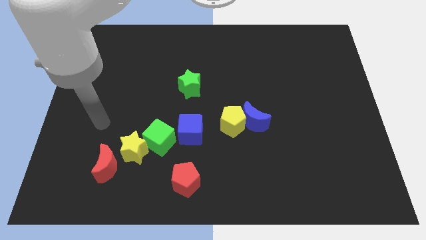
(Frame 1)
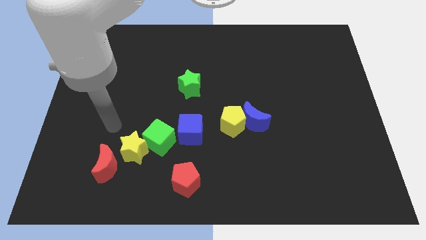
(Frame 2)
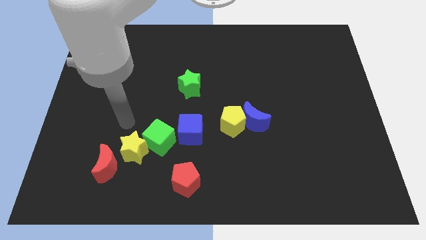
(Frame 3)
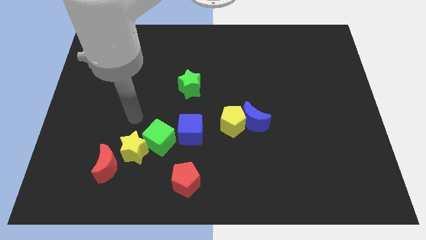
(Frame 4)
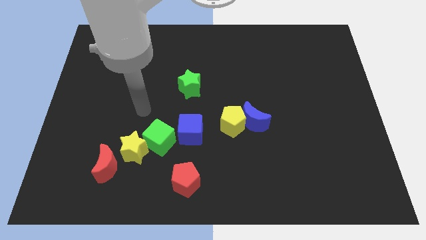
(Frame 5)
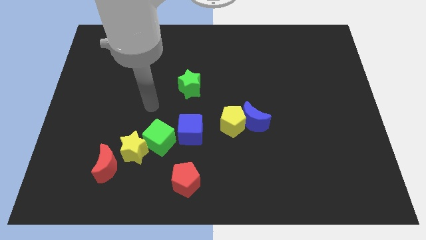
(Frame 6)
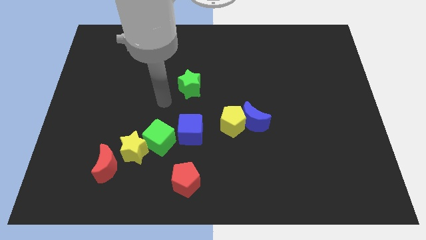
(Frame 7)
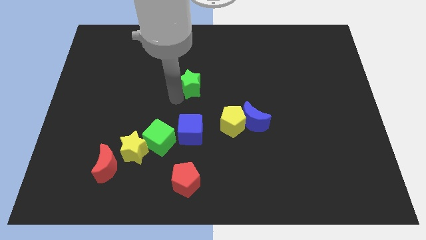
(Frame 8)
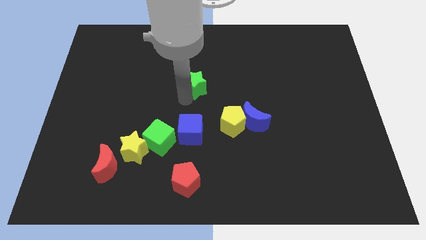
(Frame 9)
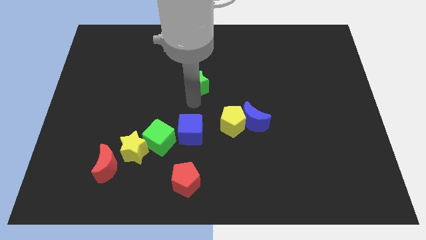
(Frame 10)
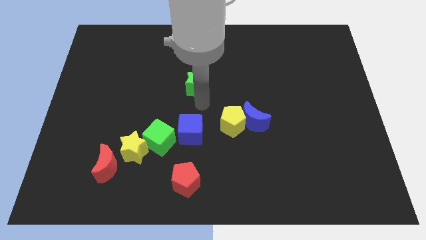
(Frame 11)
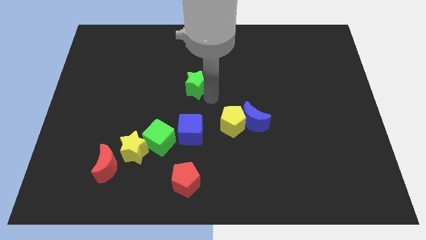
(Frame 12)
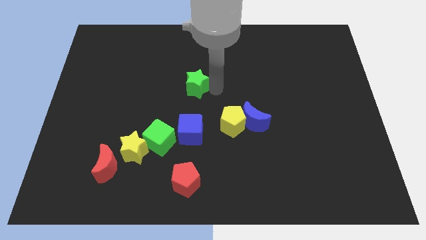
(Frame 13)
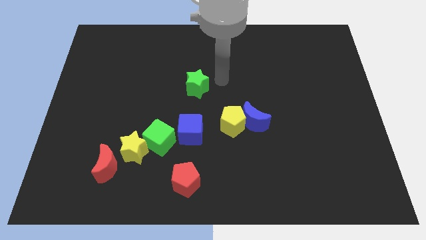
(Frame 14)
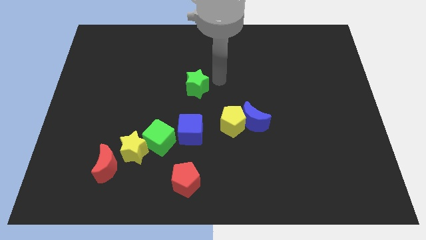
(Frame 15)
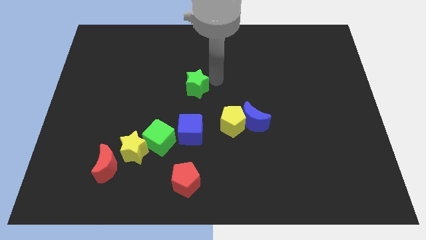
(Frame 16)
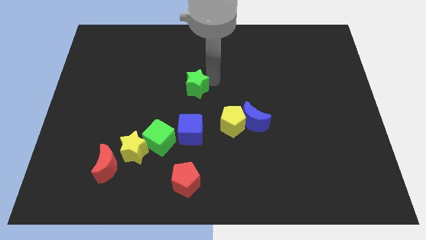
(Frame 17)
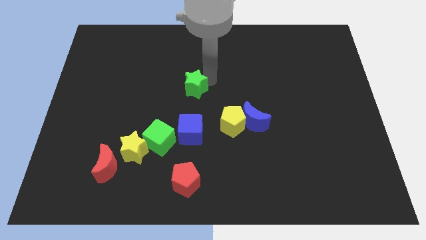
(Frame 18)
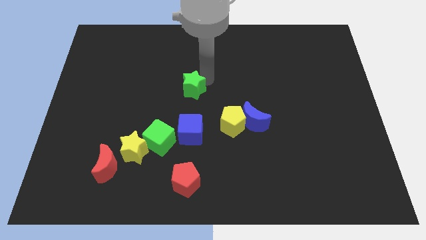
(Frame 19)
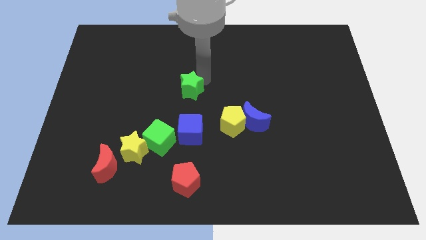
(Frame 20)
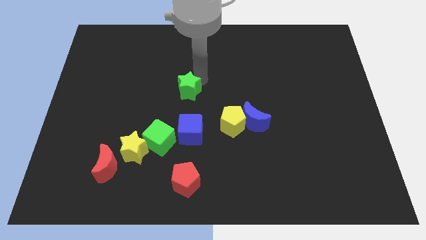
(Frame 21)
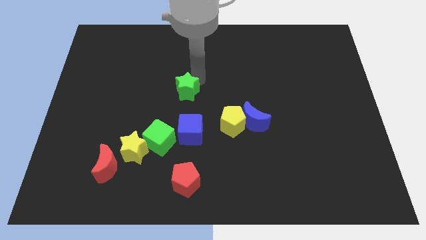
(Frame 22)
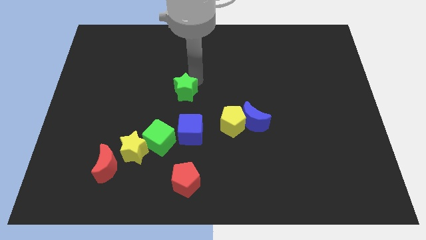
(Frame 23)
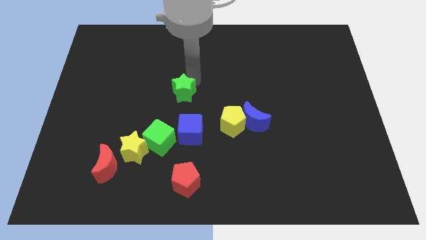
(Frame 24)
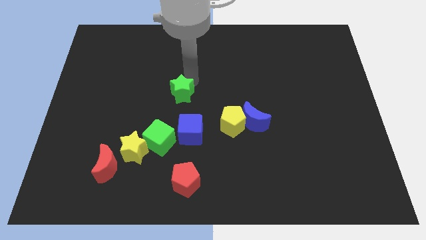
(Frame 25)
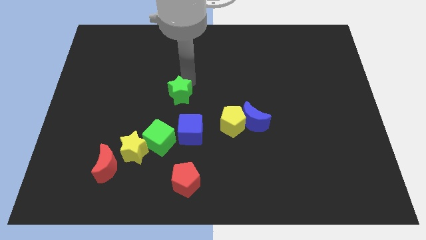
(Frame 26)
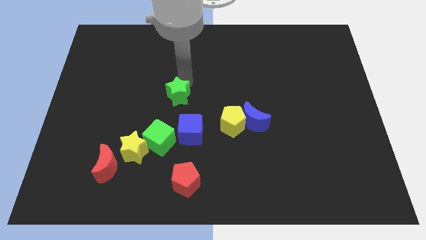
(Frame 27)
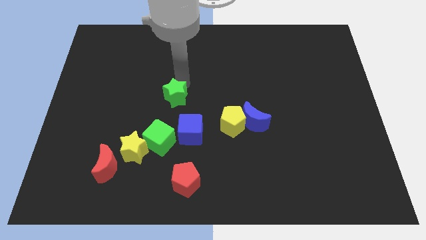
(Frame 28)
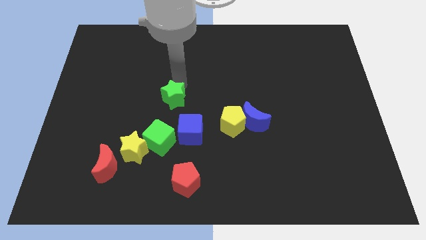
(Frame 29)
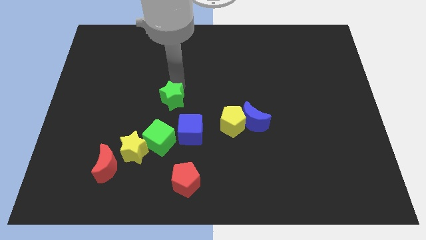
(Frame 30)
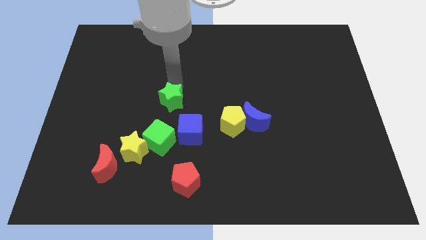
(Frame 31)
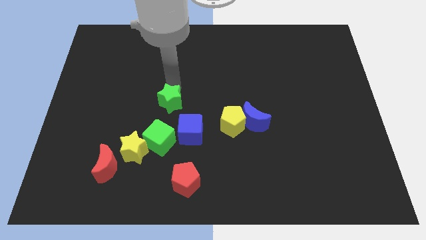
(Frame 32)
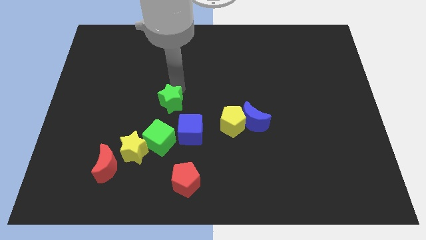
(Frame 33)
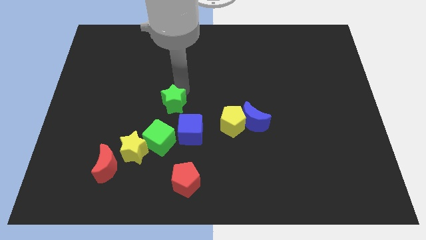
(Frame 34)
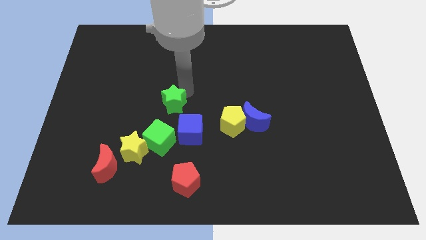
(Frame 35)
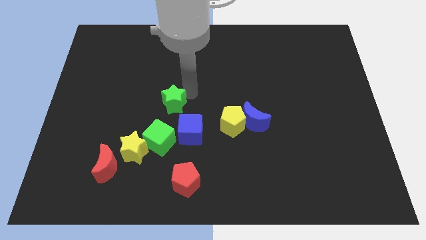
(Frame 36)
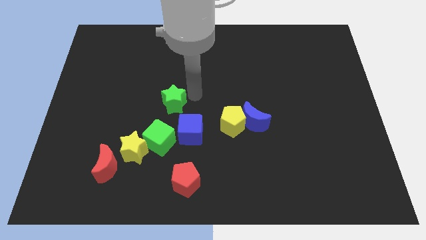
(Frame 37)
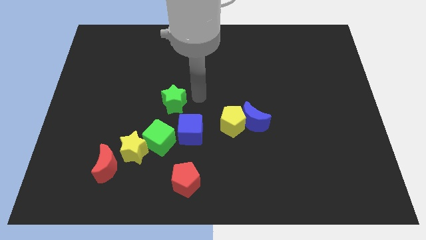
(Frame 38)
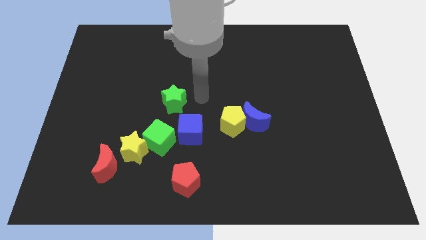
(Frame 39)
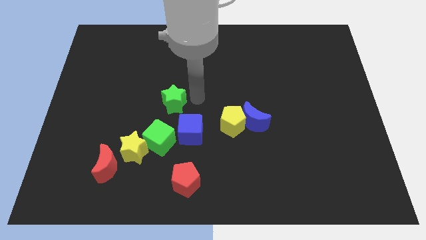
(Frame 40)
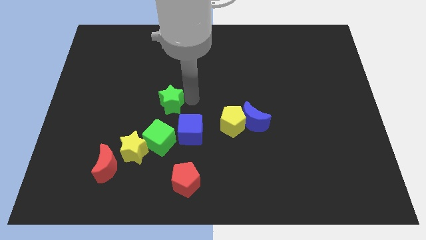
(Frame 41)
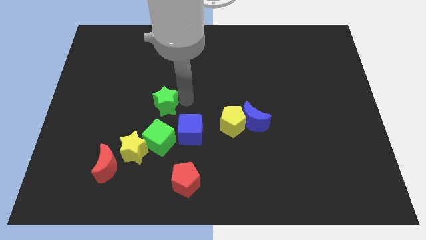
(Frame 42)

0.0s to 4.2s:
slightly push the green star downwards and to the left diagonally

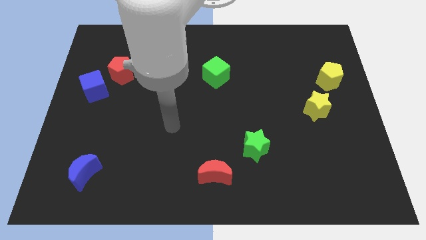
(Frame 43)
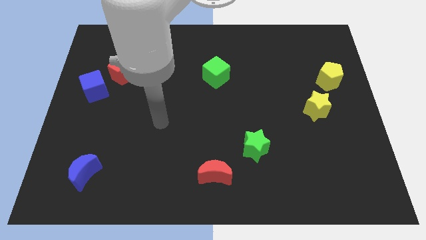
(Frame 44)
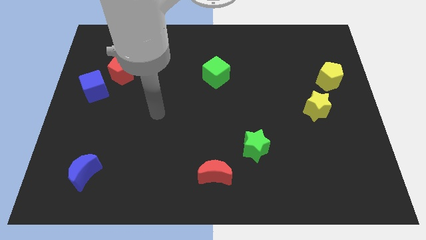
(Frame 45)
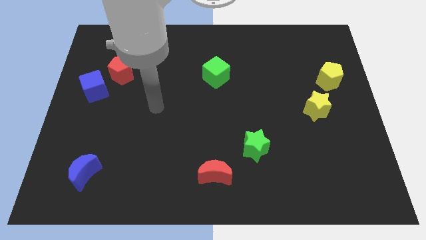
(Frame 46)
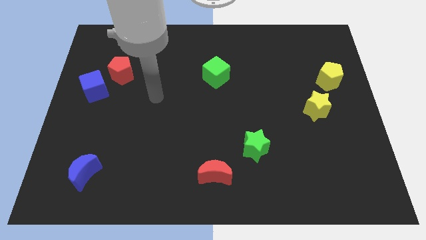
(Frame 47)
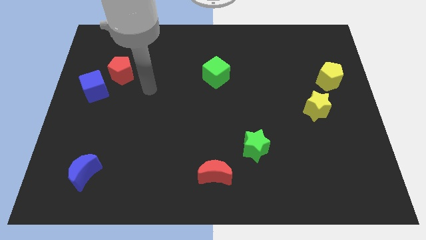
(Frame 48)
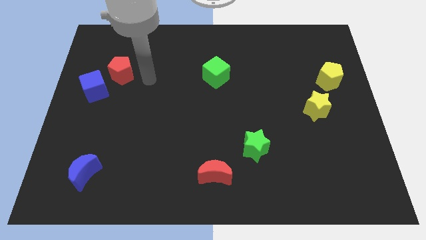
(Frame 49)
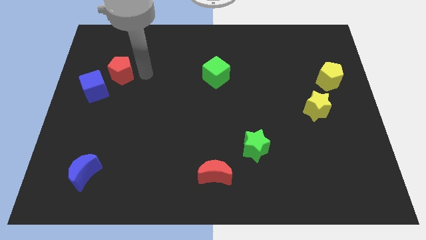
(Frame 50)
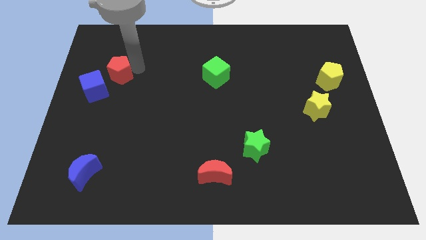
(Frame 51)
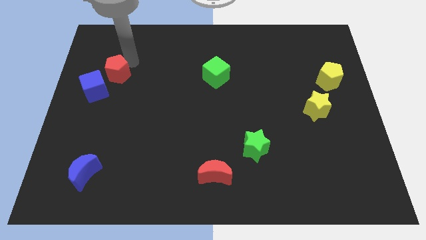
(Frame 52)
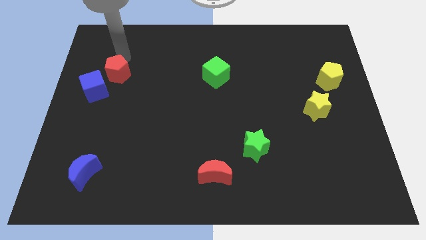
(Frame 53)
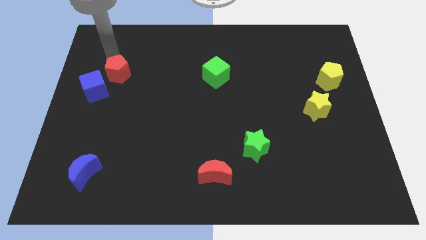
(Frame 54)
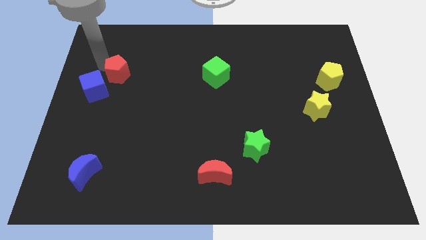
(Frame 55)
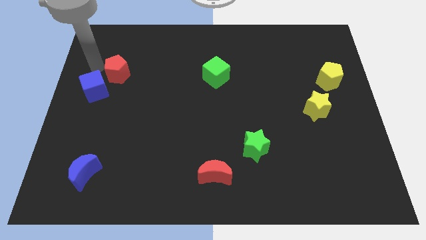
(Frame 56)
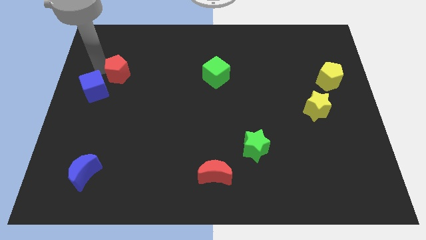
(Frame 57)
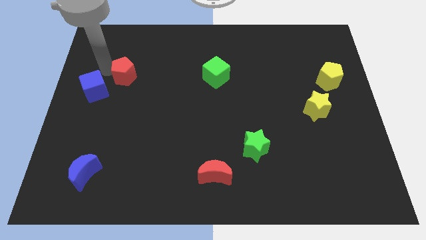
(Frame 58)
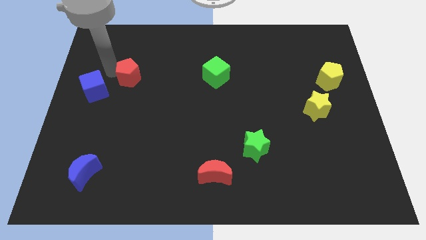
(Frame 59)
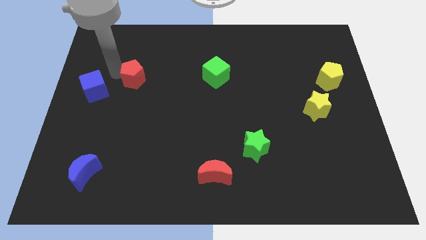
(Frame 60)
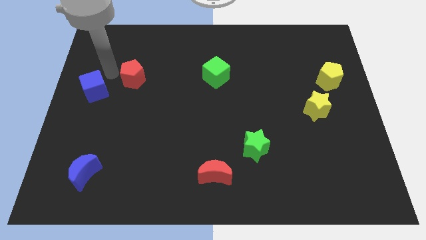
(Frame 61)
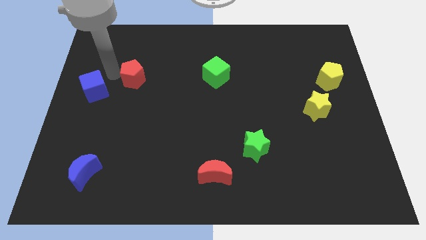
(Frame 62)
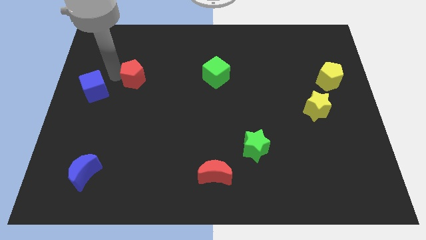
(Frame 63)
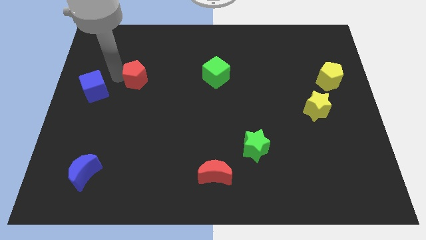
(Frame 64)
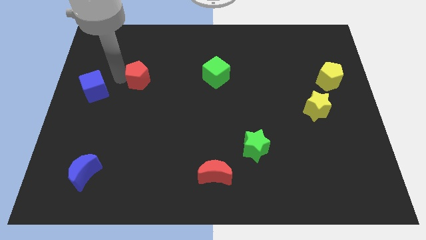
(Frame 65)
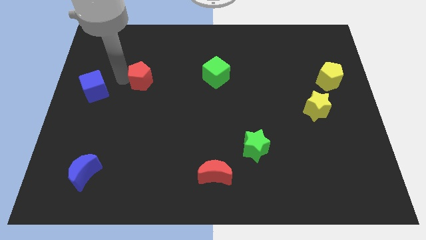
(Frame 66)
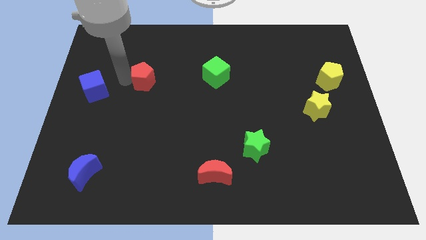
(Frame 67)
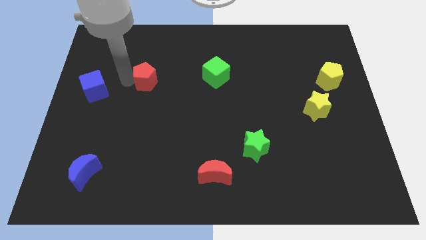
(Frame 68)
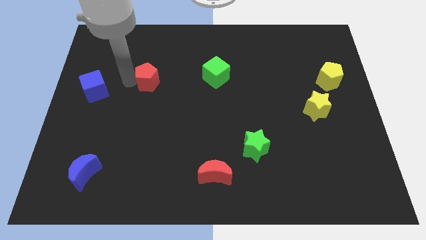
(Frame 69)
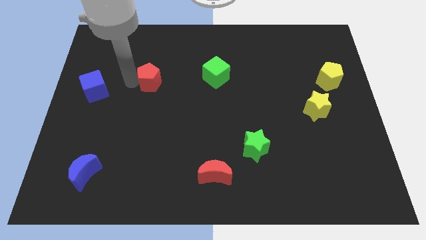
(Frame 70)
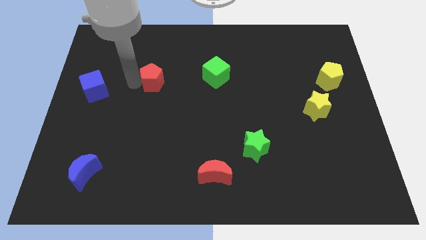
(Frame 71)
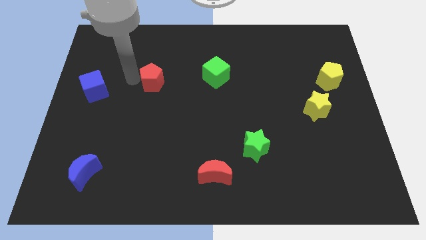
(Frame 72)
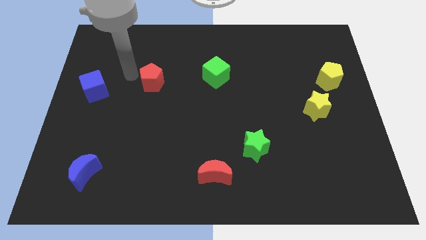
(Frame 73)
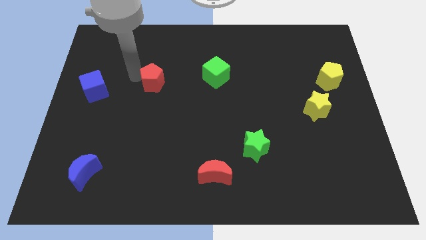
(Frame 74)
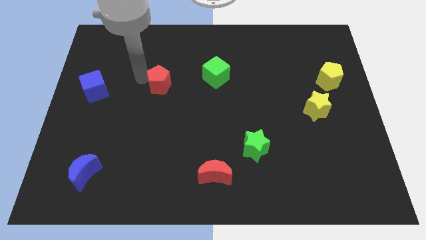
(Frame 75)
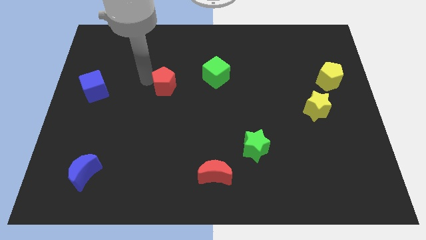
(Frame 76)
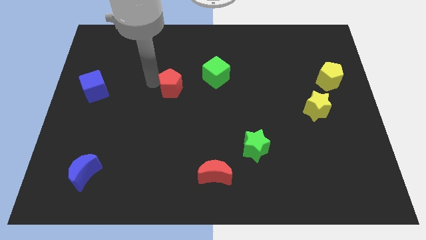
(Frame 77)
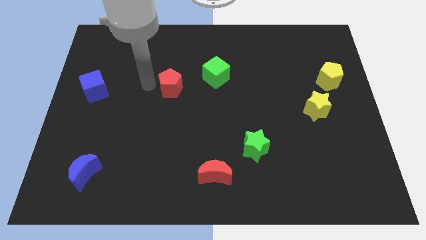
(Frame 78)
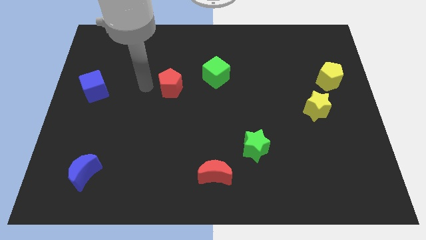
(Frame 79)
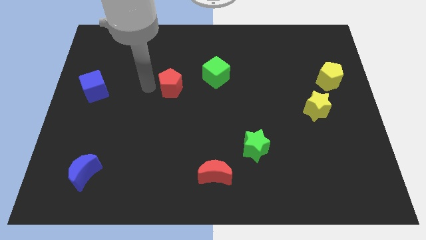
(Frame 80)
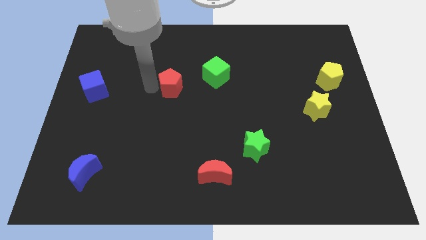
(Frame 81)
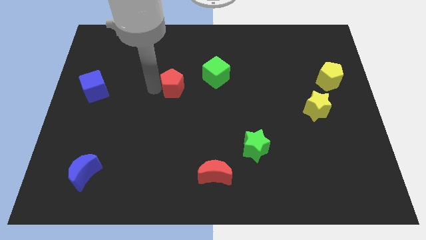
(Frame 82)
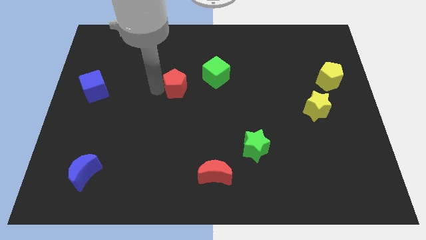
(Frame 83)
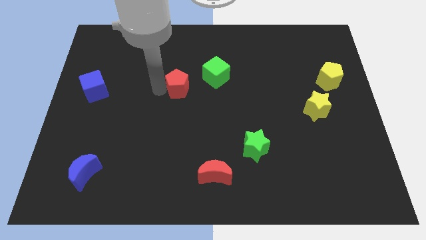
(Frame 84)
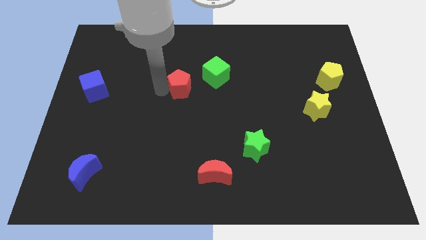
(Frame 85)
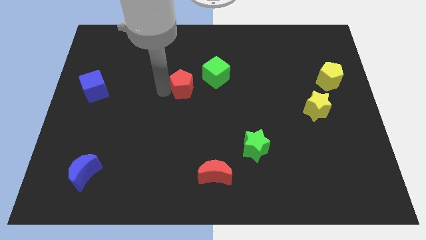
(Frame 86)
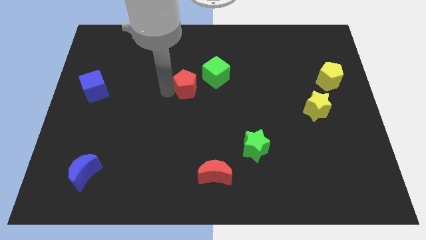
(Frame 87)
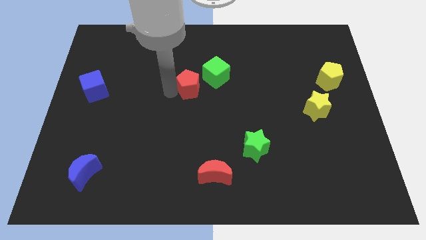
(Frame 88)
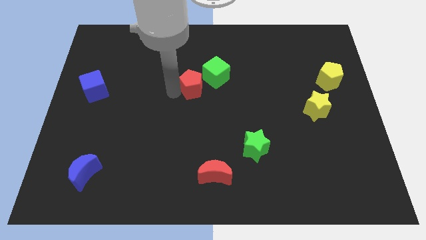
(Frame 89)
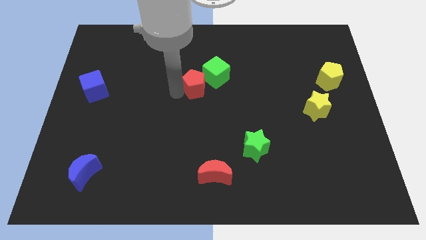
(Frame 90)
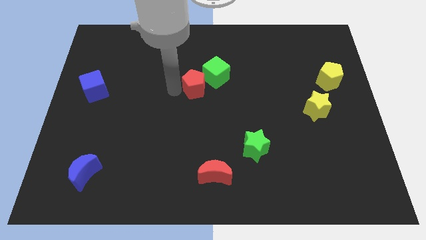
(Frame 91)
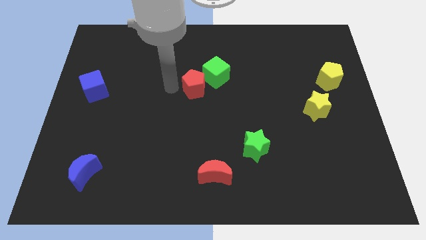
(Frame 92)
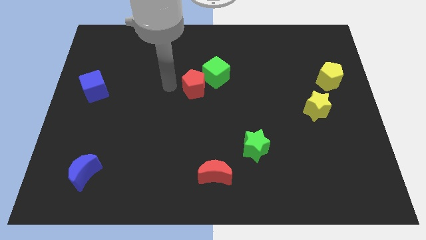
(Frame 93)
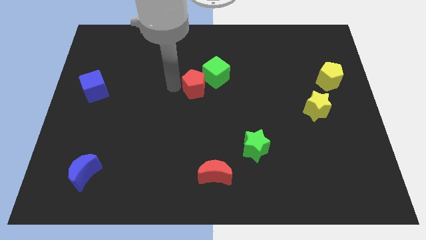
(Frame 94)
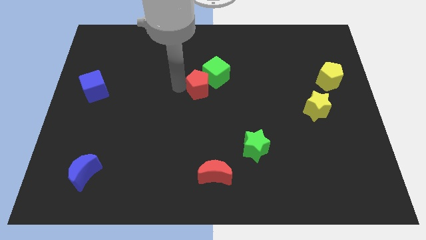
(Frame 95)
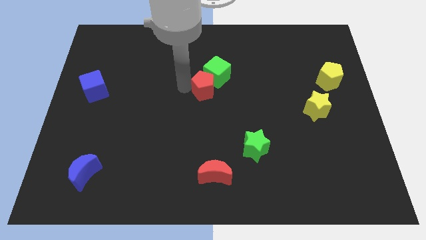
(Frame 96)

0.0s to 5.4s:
move the red pentagon right
